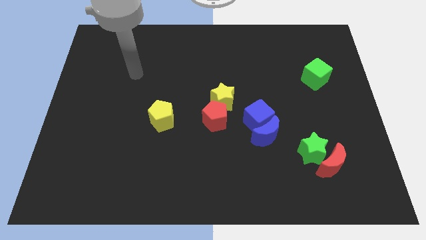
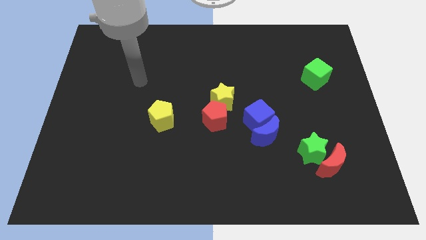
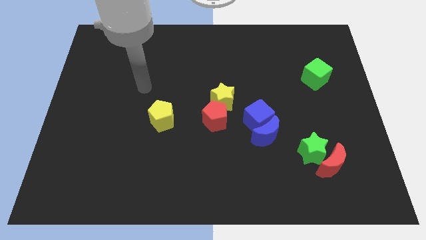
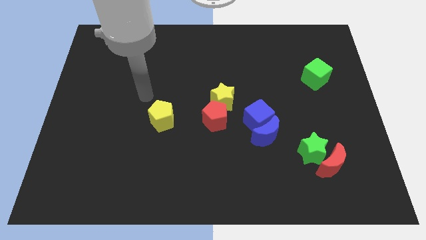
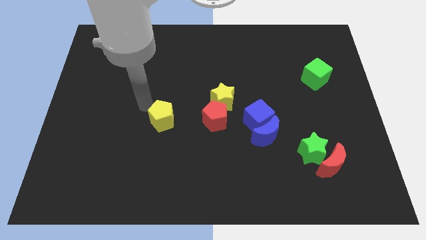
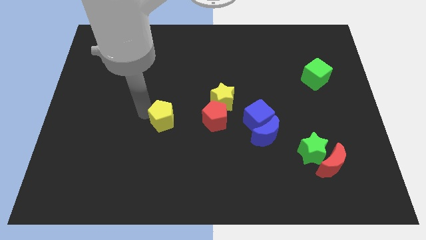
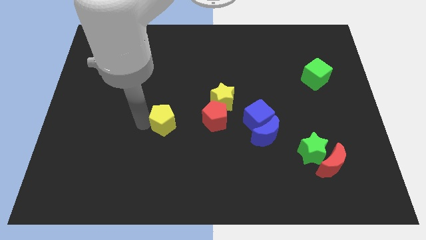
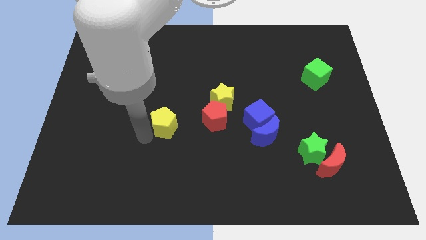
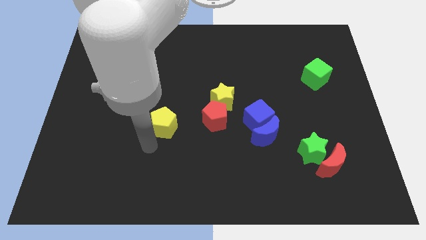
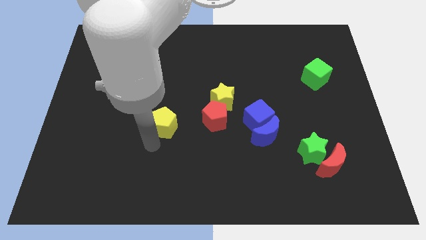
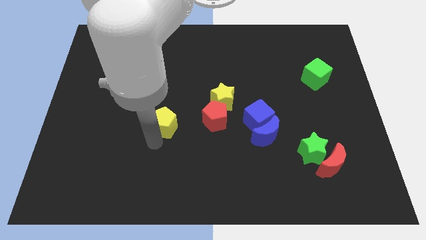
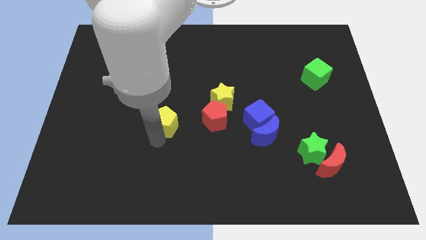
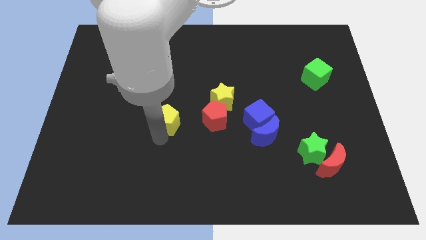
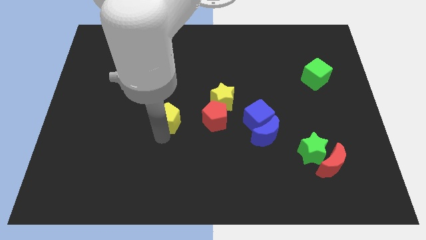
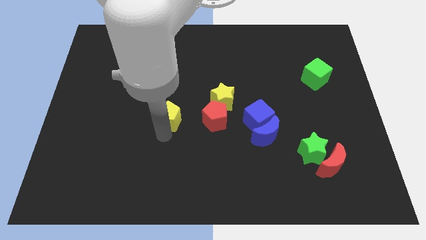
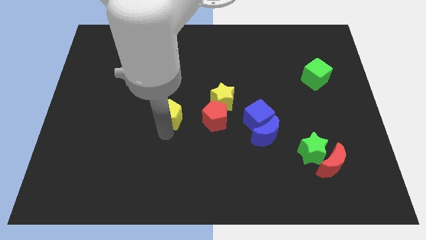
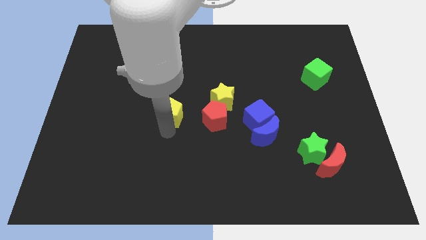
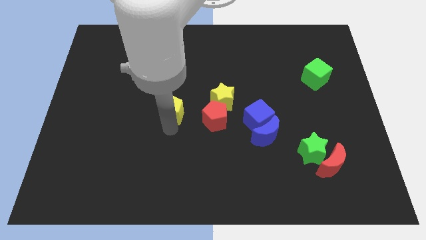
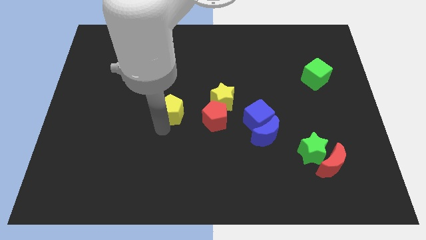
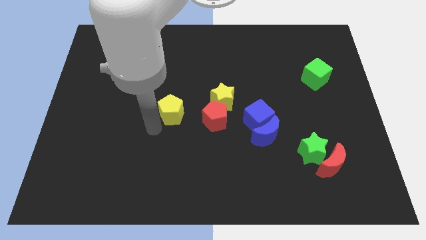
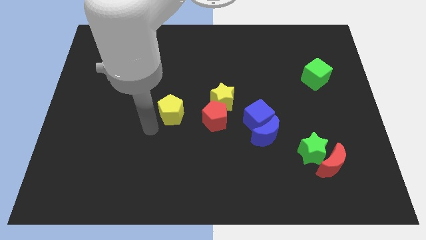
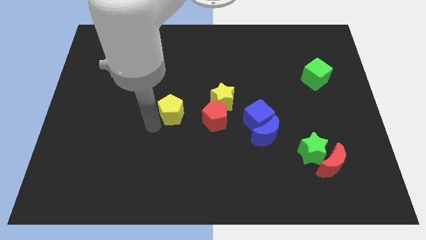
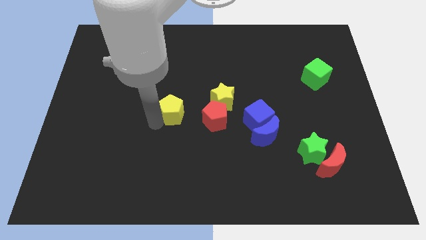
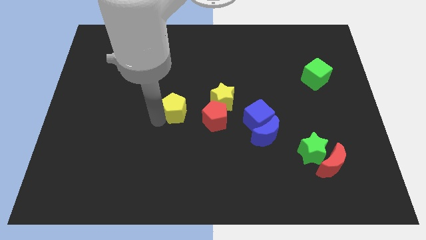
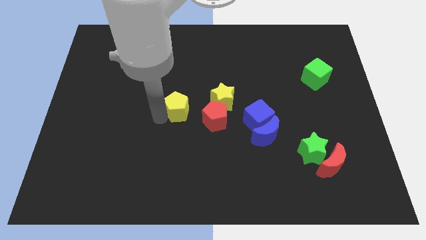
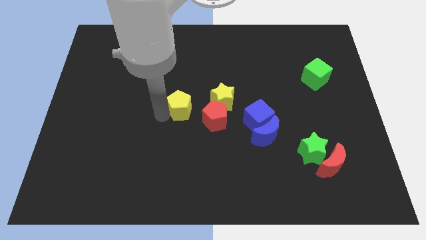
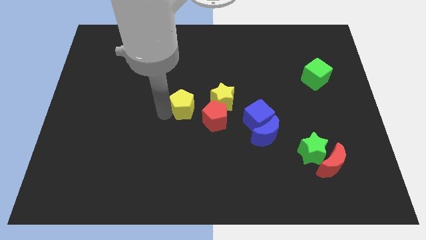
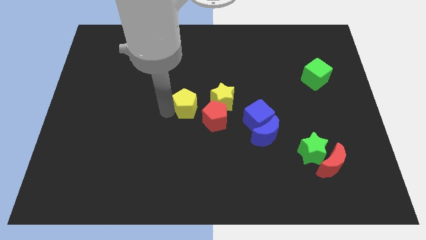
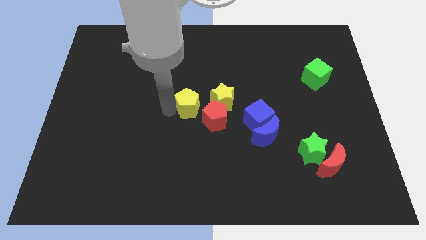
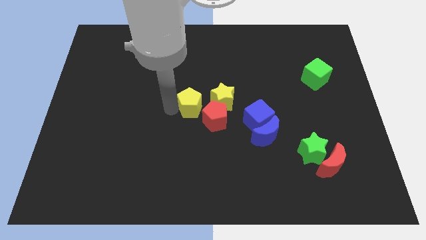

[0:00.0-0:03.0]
slide the yellow pentagon slightly diagonally upwards and to the right

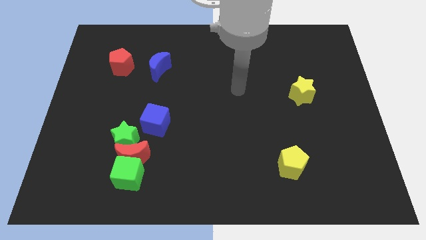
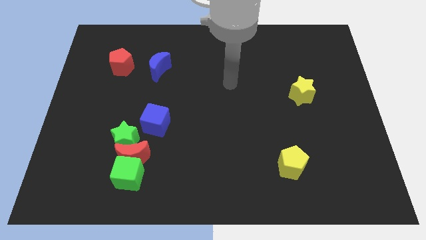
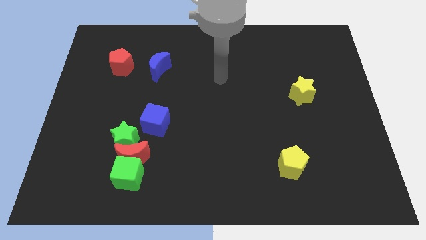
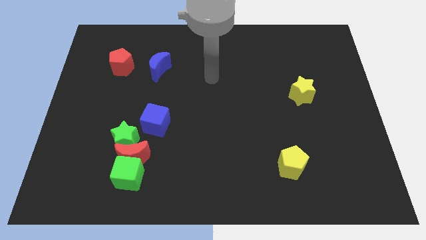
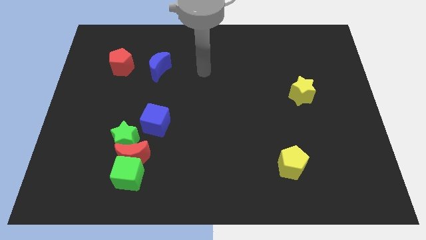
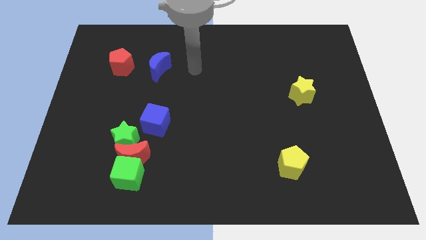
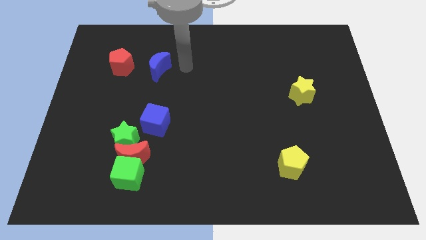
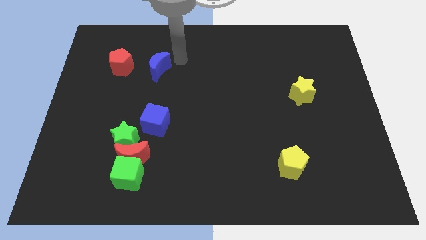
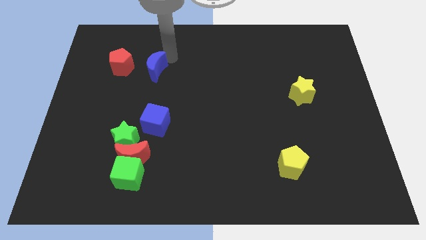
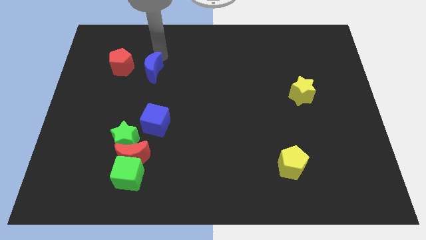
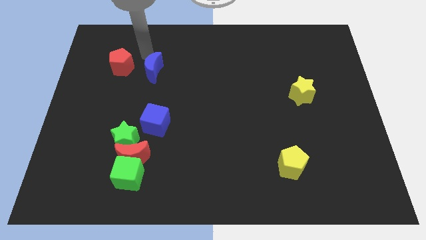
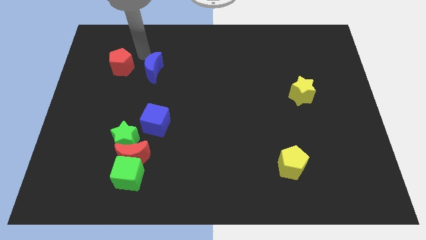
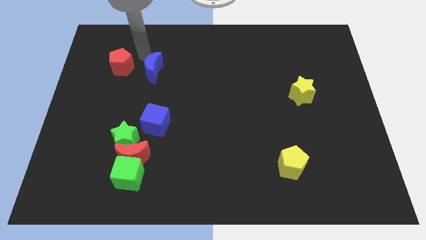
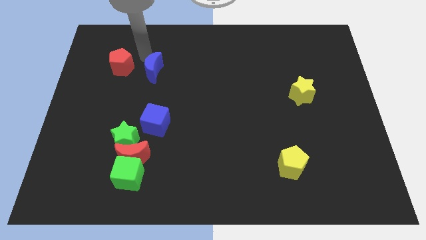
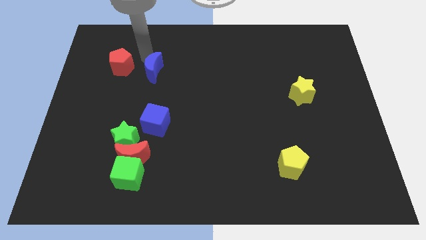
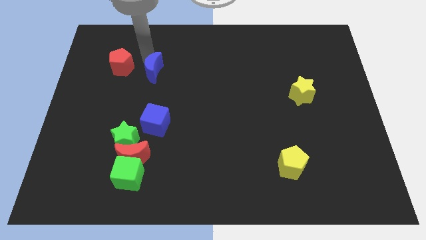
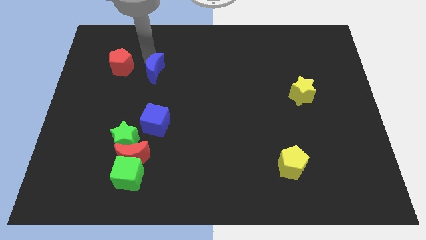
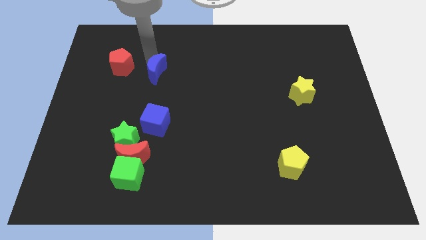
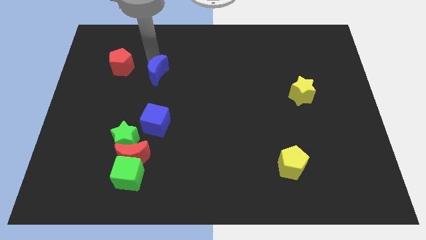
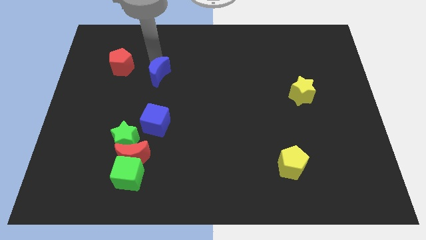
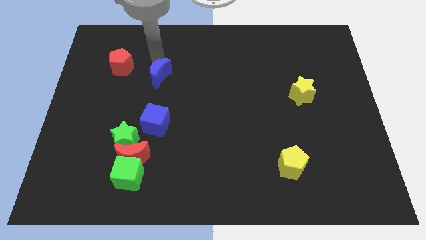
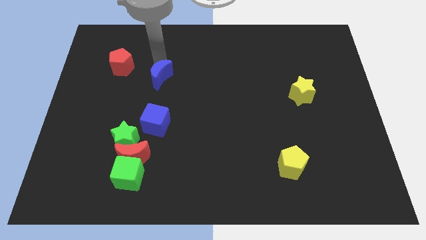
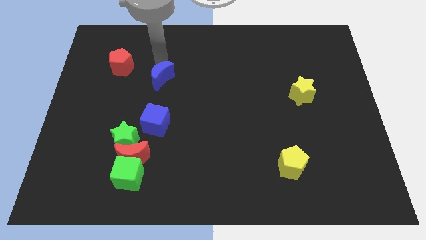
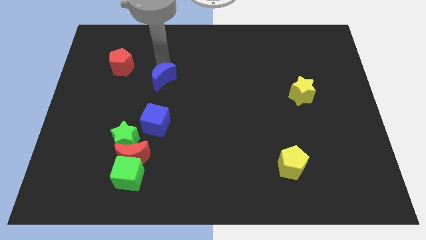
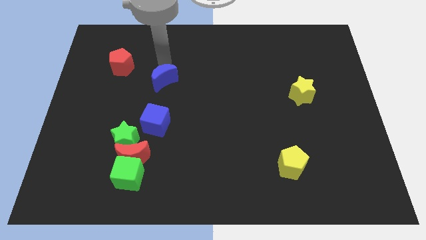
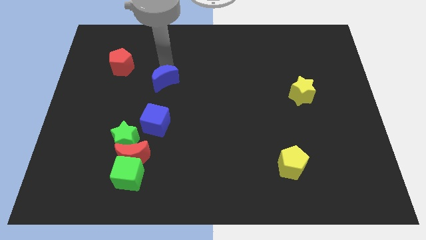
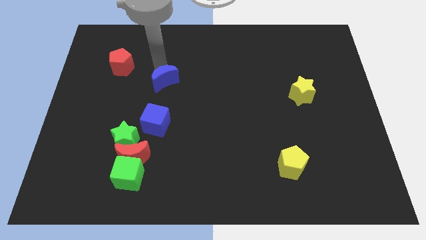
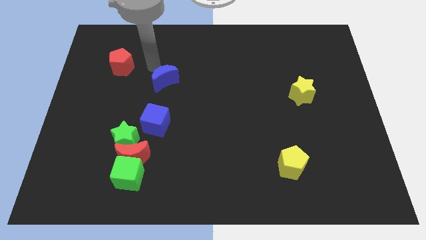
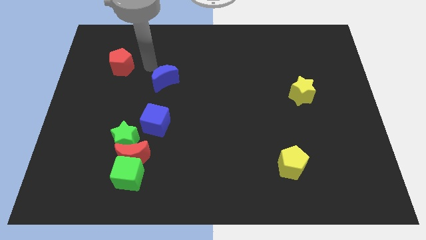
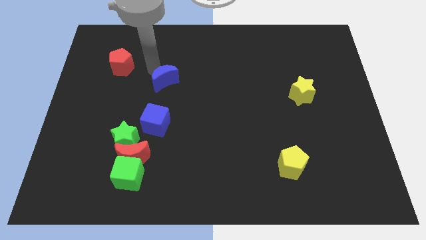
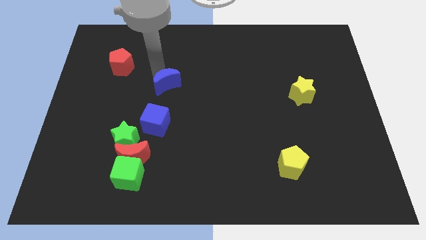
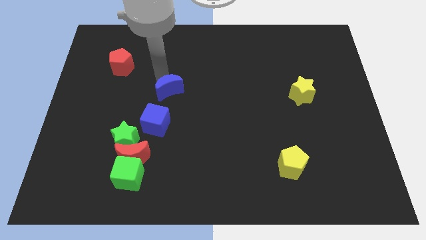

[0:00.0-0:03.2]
slide the blue moon a little bit down and then right

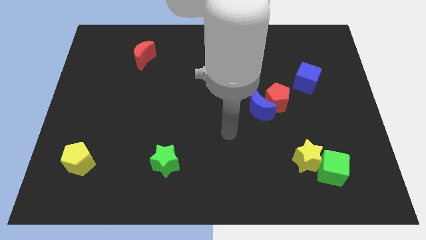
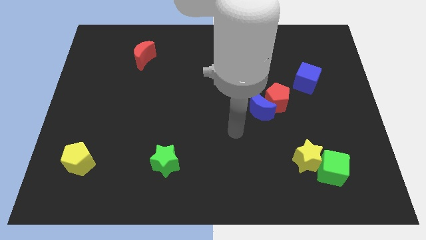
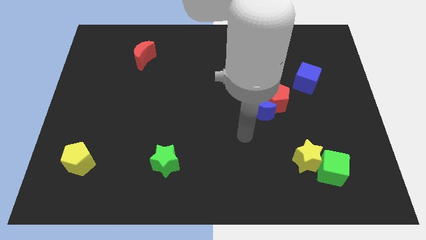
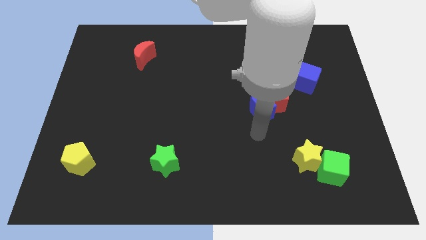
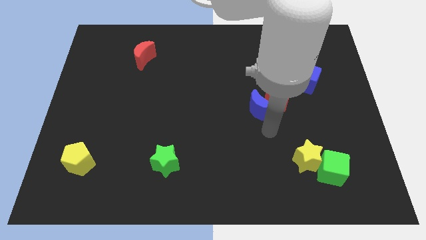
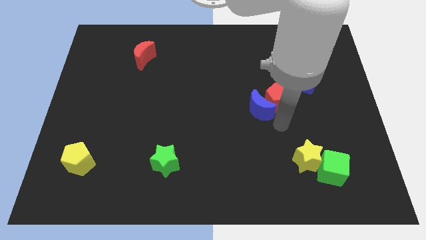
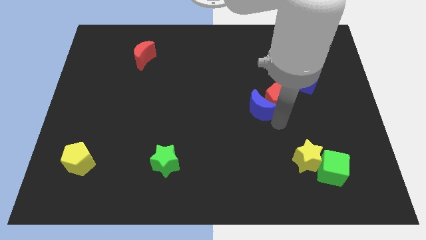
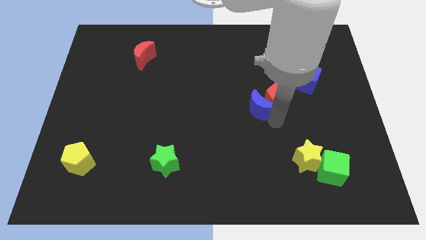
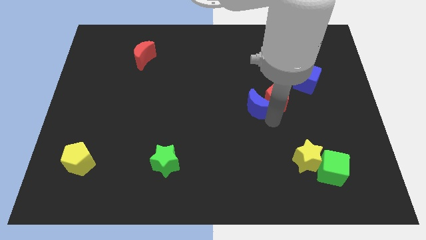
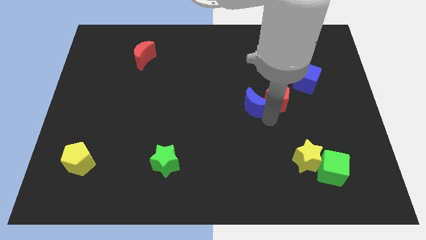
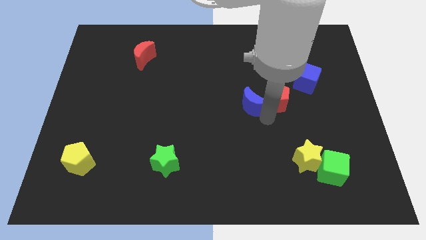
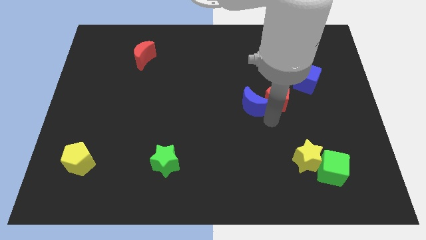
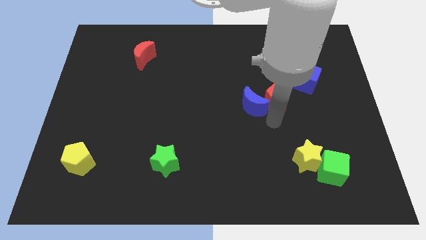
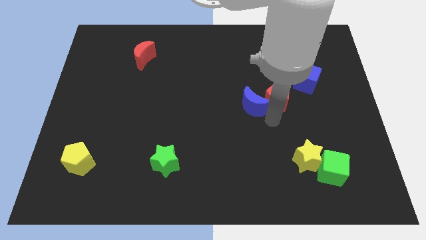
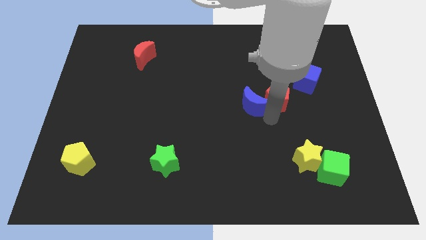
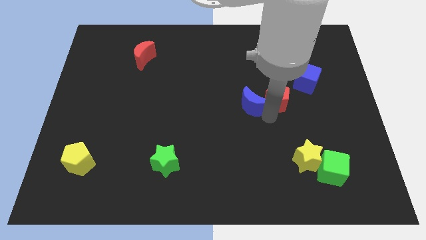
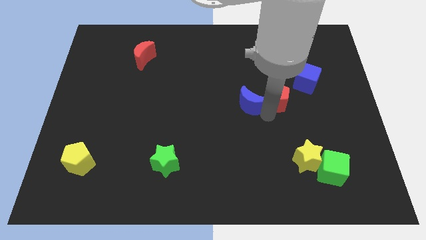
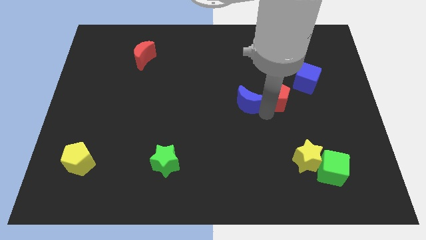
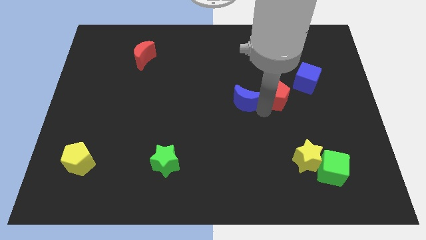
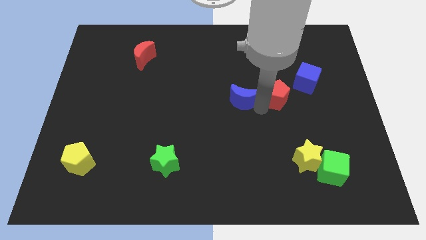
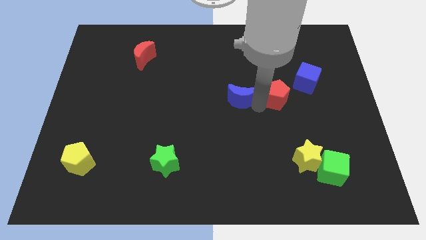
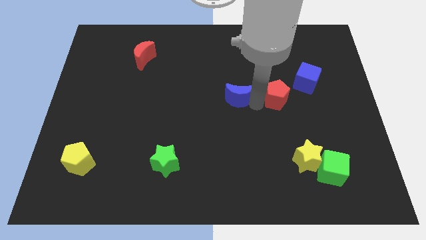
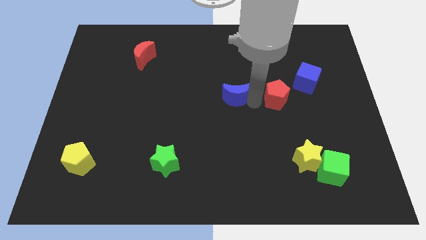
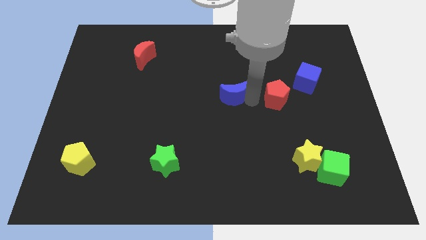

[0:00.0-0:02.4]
move the blue moon a bit upwards and left
